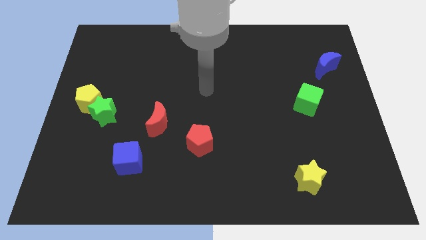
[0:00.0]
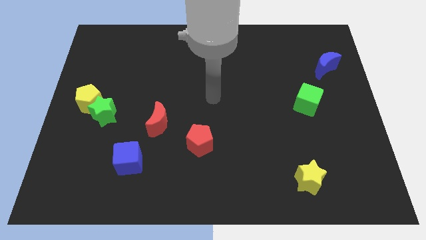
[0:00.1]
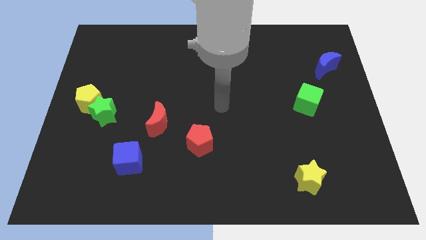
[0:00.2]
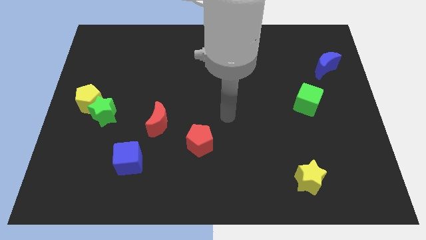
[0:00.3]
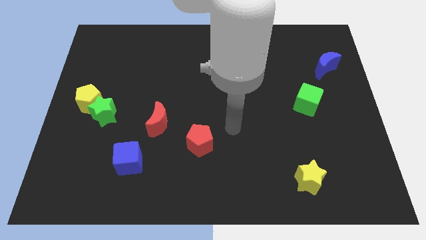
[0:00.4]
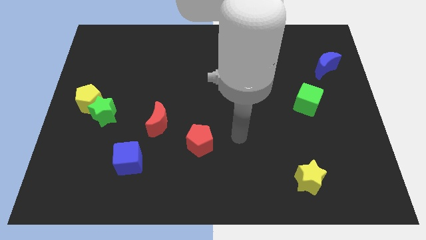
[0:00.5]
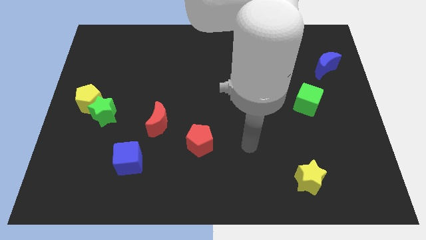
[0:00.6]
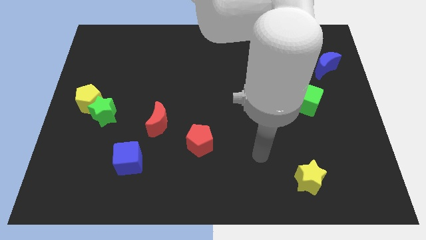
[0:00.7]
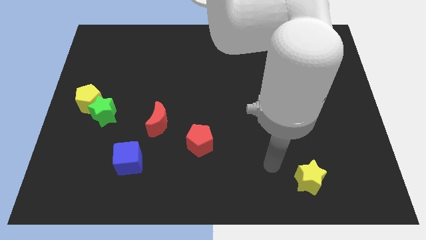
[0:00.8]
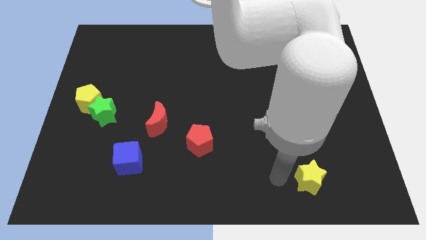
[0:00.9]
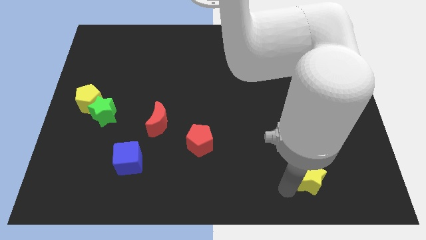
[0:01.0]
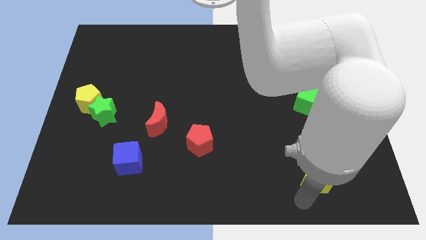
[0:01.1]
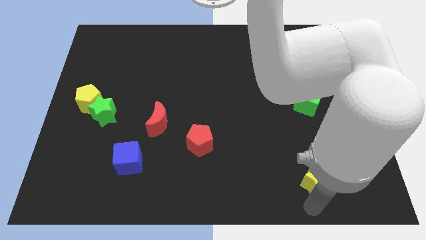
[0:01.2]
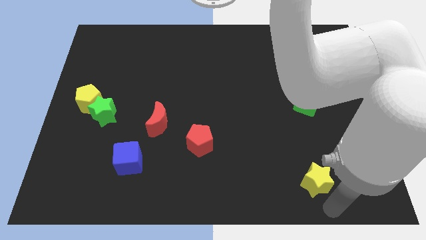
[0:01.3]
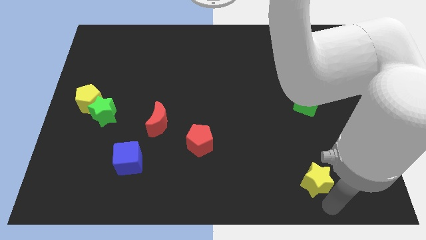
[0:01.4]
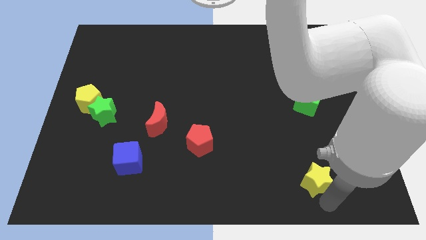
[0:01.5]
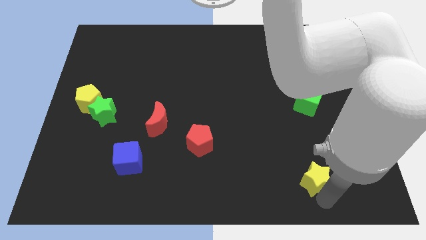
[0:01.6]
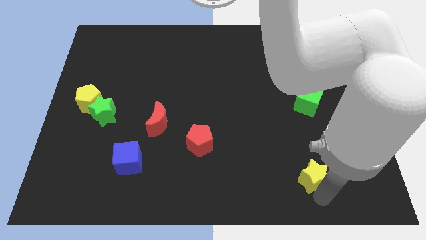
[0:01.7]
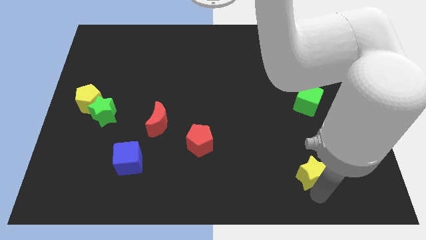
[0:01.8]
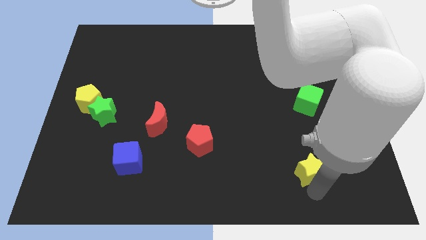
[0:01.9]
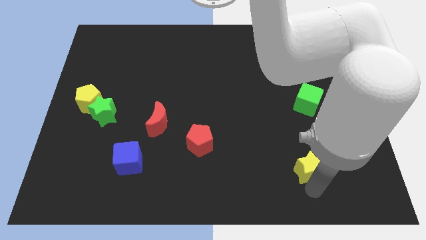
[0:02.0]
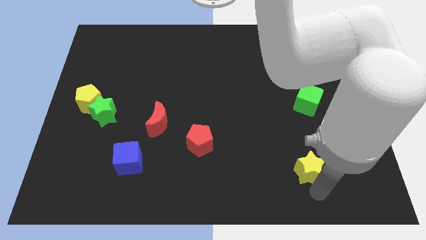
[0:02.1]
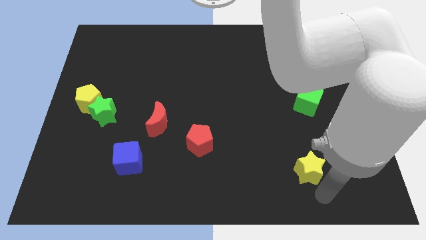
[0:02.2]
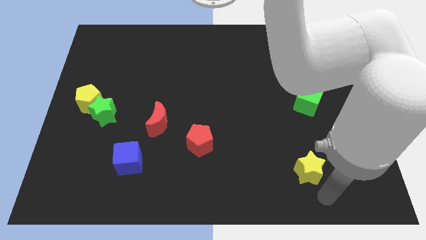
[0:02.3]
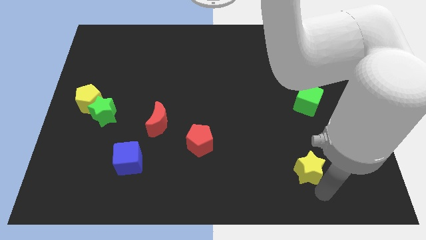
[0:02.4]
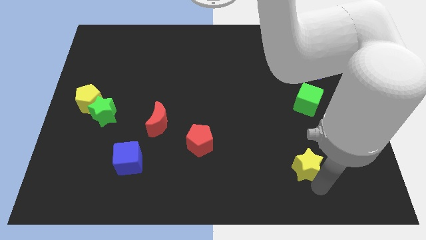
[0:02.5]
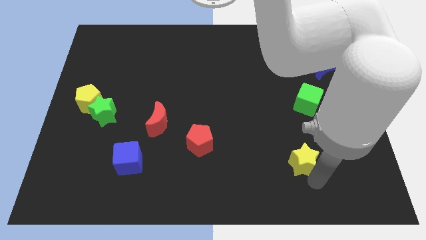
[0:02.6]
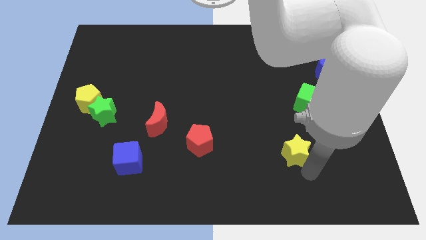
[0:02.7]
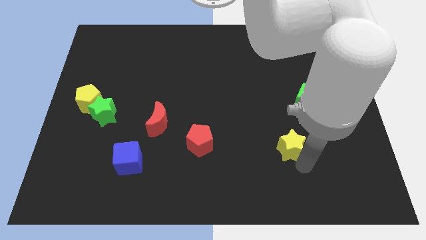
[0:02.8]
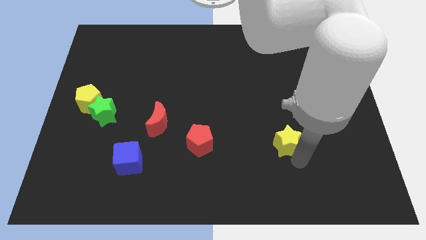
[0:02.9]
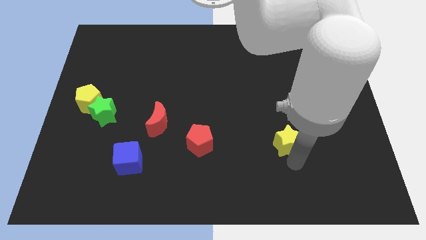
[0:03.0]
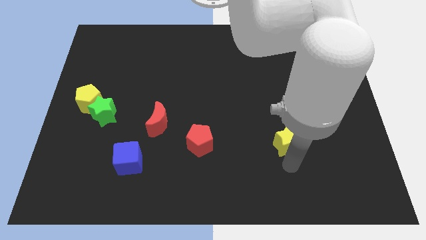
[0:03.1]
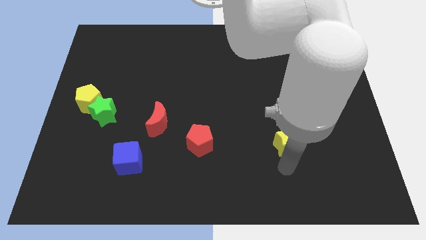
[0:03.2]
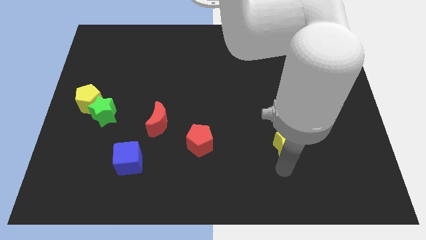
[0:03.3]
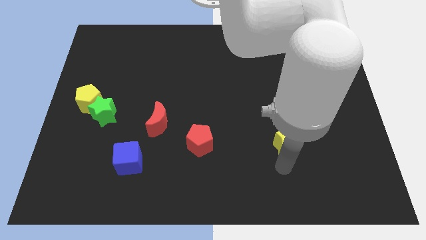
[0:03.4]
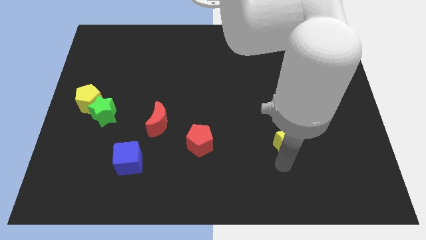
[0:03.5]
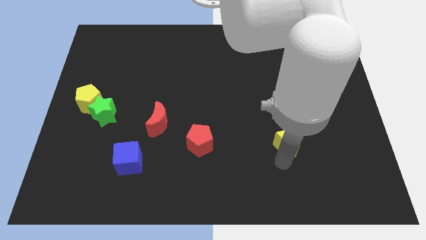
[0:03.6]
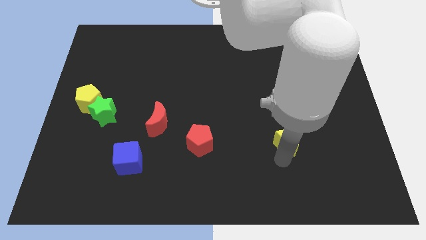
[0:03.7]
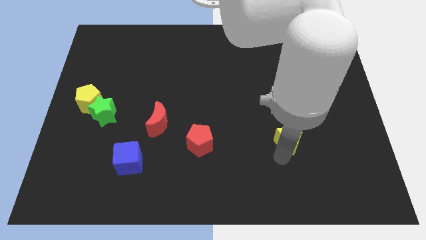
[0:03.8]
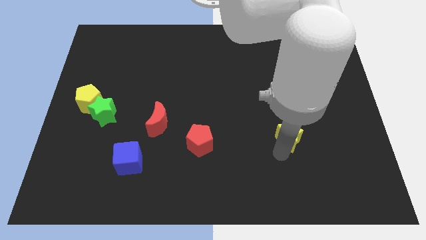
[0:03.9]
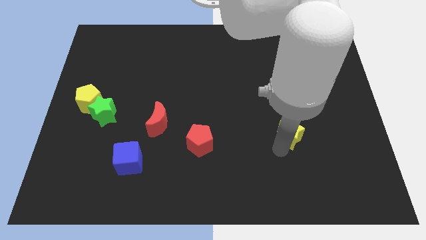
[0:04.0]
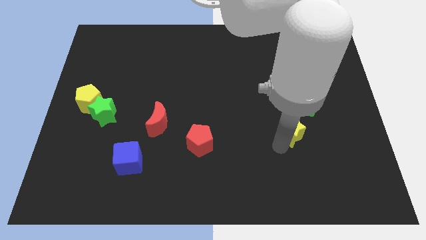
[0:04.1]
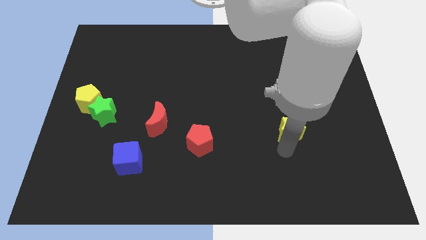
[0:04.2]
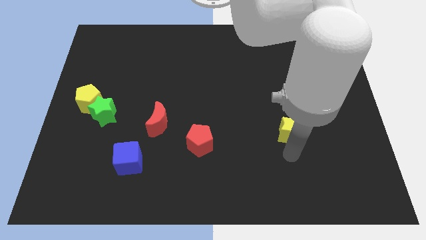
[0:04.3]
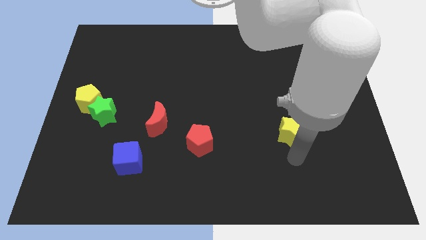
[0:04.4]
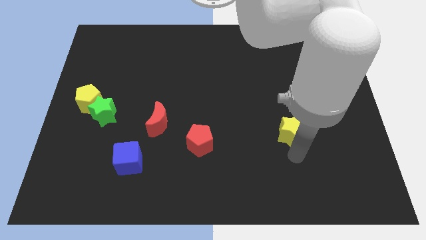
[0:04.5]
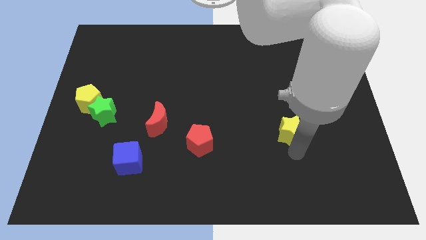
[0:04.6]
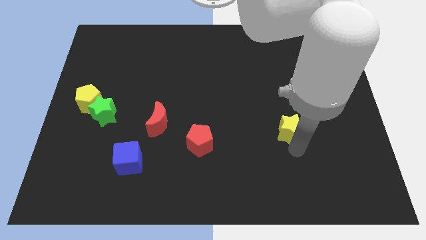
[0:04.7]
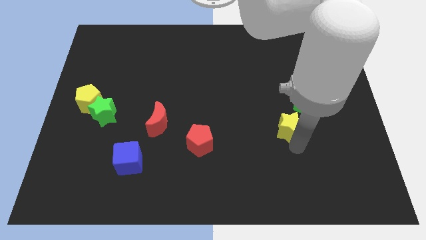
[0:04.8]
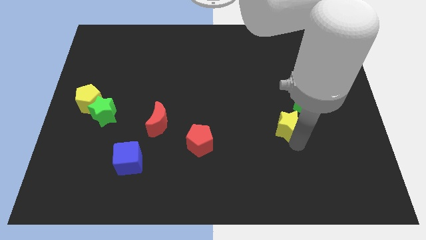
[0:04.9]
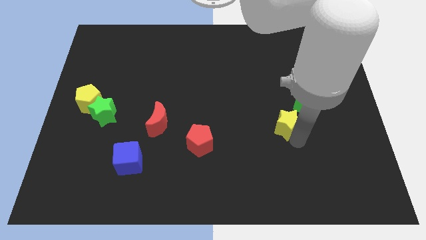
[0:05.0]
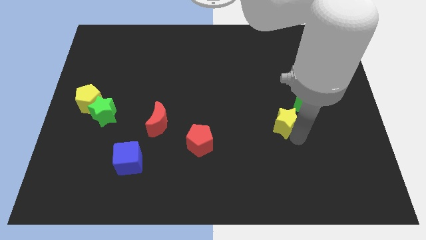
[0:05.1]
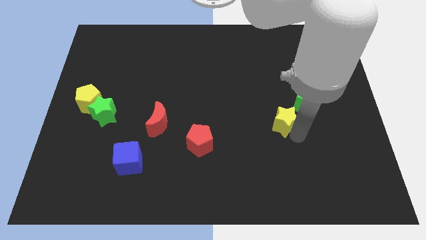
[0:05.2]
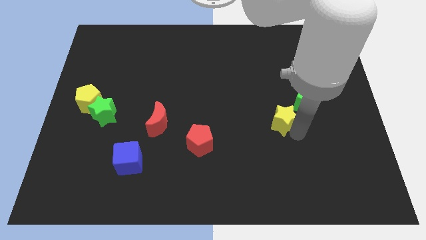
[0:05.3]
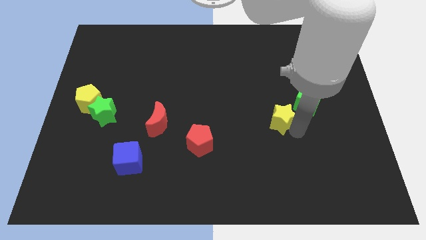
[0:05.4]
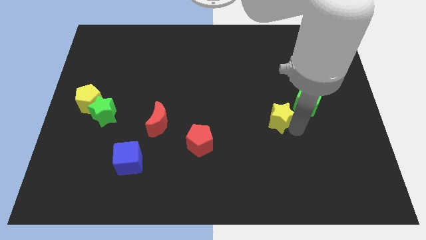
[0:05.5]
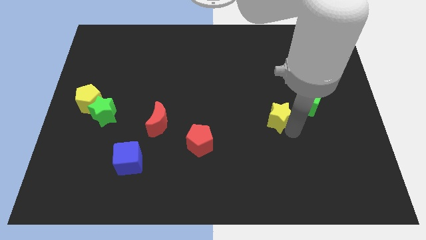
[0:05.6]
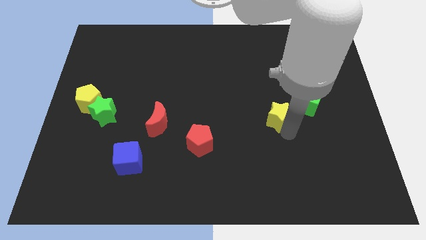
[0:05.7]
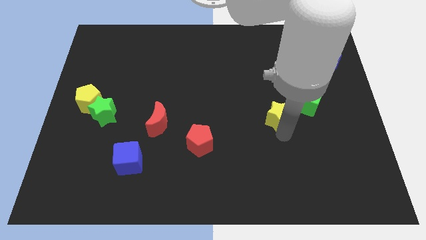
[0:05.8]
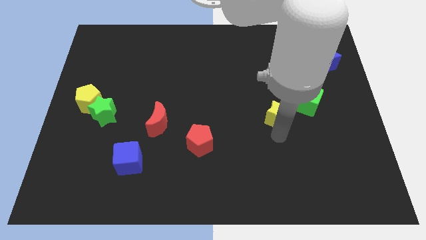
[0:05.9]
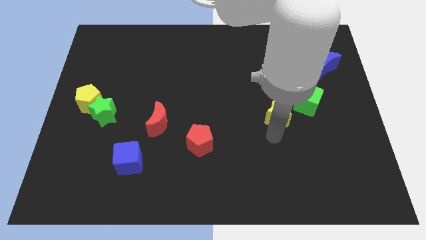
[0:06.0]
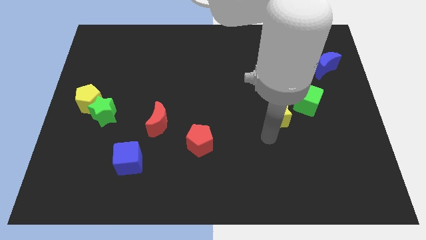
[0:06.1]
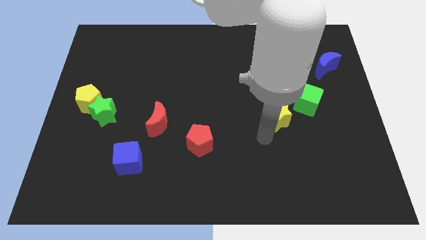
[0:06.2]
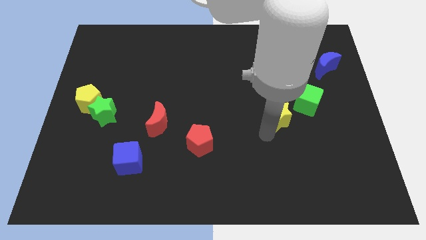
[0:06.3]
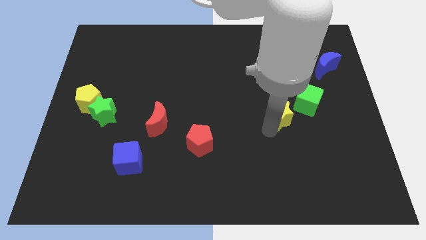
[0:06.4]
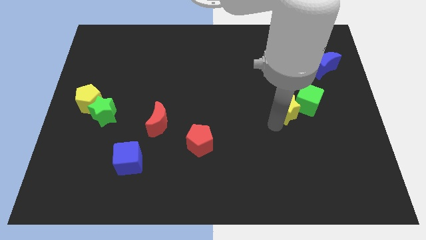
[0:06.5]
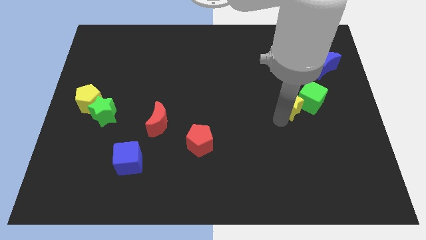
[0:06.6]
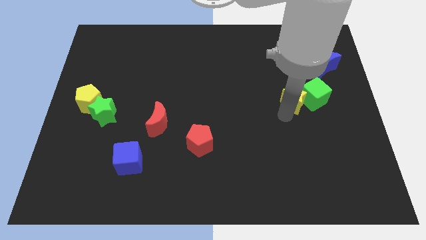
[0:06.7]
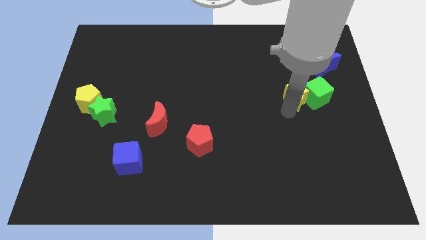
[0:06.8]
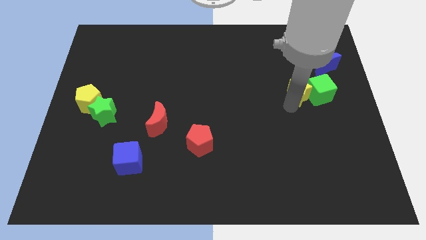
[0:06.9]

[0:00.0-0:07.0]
push the yellow star to the bottom left of the blue moon

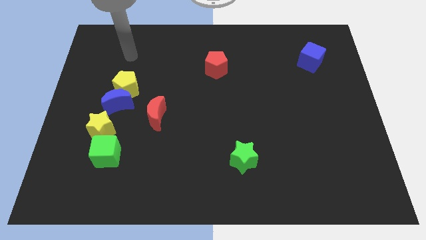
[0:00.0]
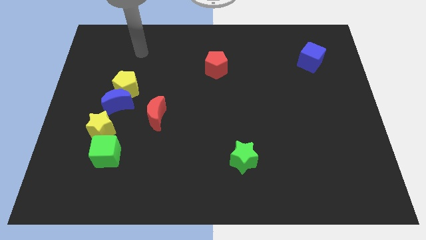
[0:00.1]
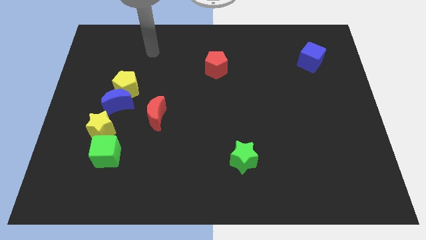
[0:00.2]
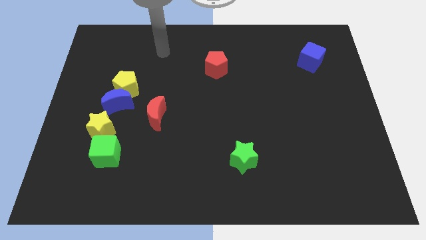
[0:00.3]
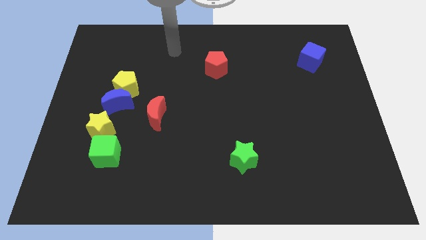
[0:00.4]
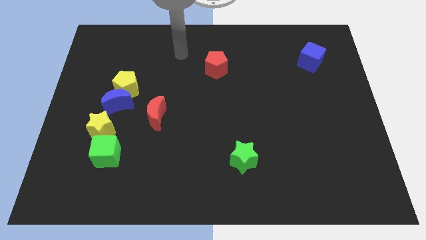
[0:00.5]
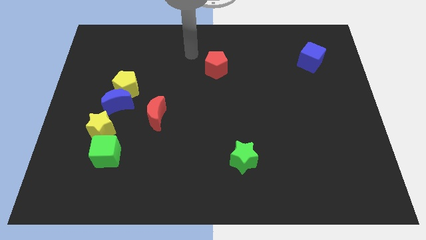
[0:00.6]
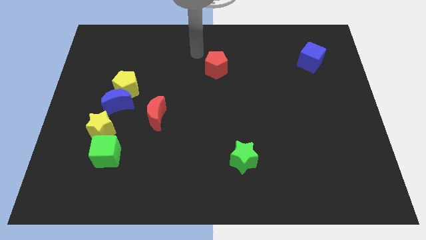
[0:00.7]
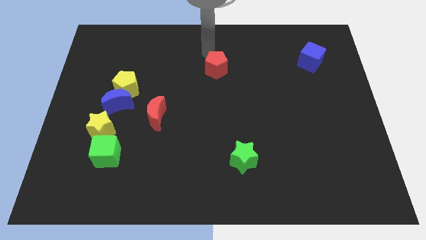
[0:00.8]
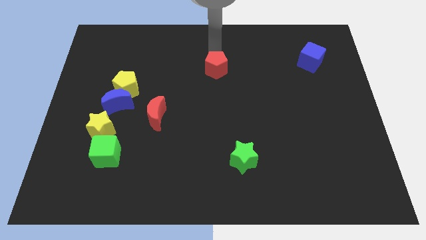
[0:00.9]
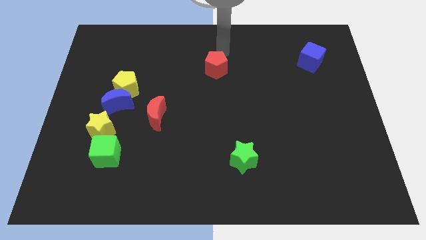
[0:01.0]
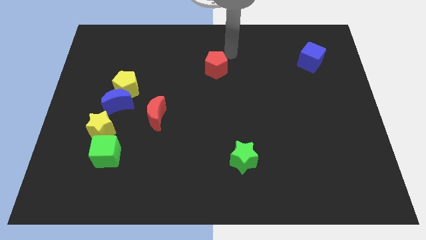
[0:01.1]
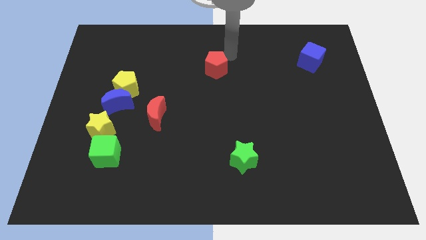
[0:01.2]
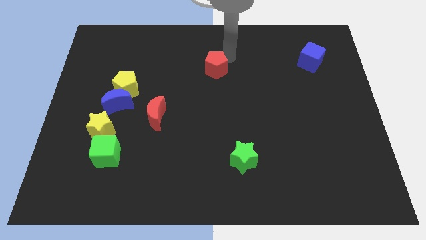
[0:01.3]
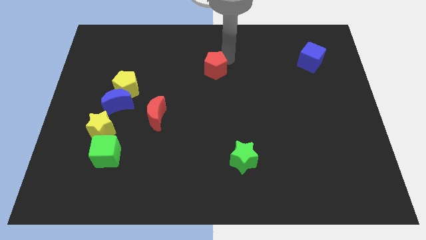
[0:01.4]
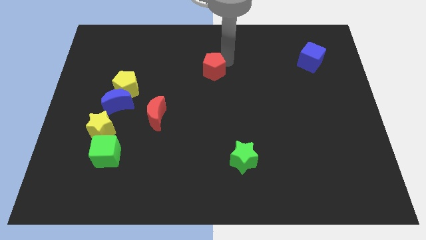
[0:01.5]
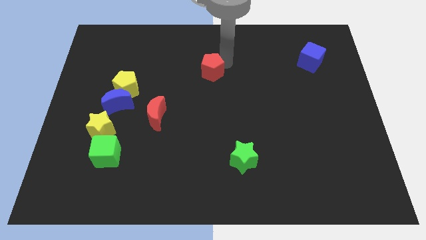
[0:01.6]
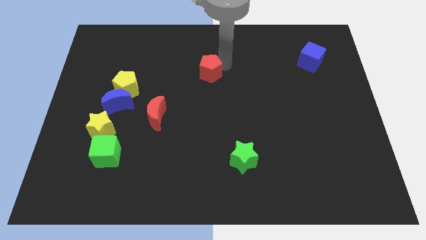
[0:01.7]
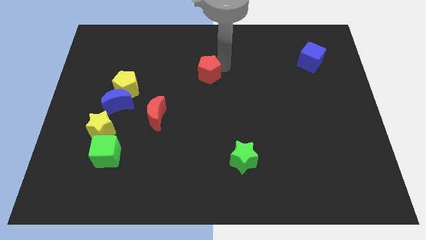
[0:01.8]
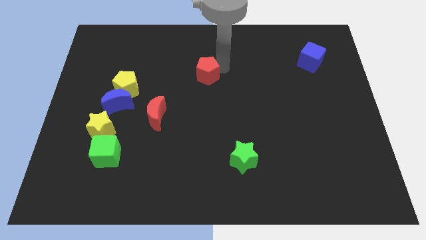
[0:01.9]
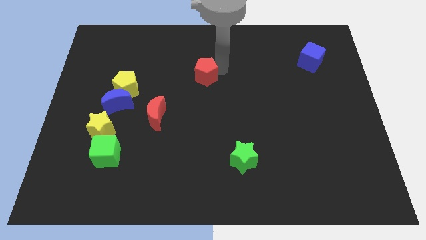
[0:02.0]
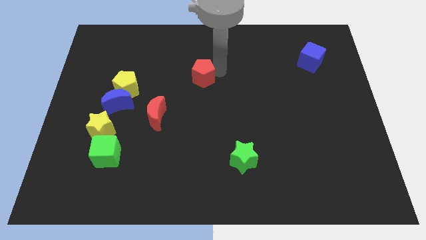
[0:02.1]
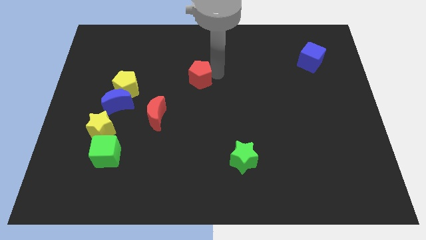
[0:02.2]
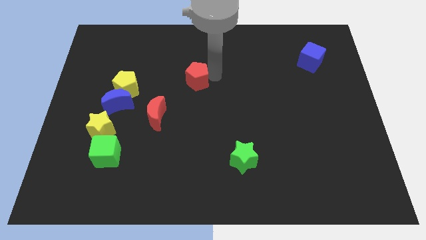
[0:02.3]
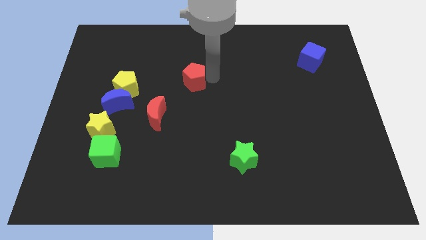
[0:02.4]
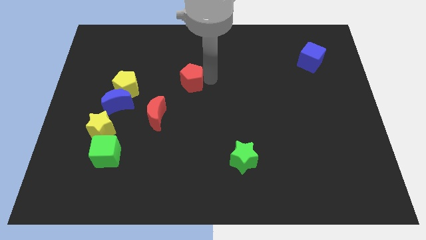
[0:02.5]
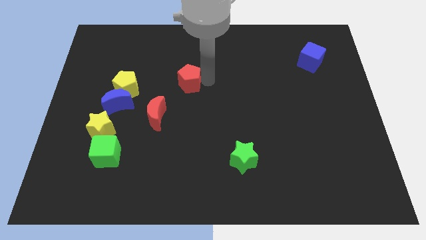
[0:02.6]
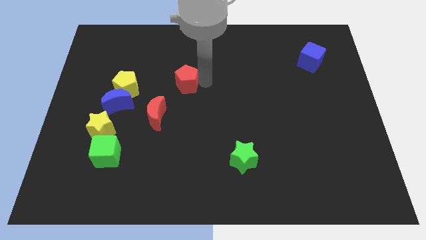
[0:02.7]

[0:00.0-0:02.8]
slide the red pentagon diagonally up and to the right of the red moon
